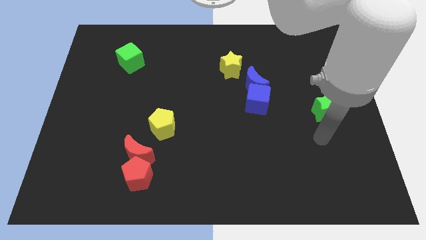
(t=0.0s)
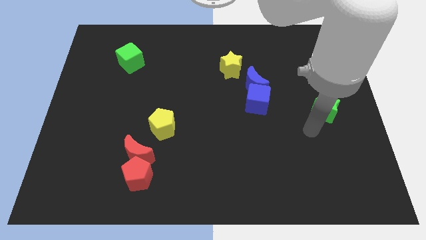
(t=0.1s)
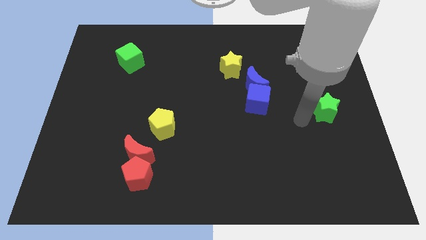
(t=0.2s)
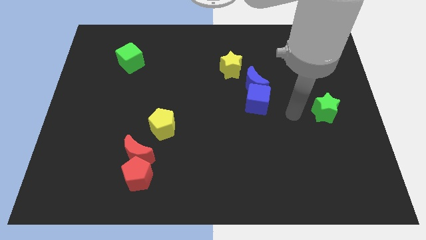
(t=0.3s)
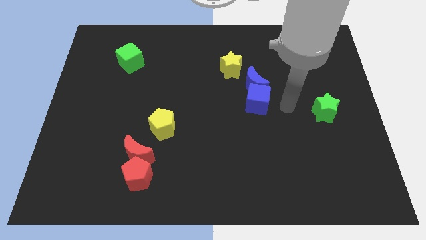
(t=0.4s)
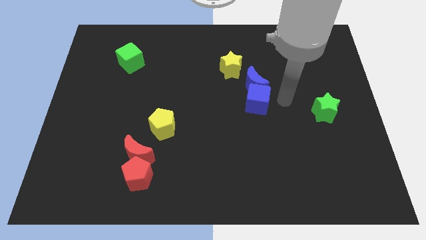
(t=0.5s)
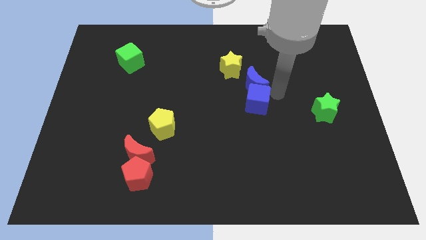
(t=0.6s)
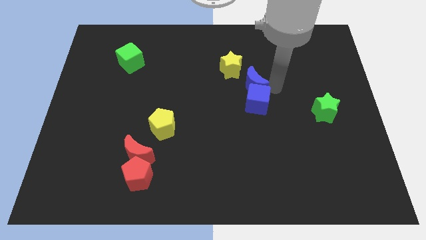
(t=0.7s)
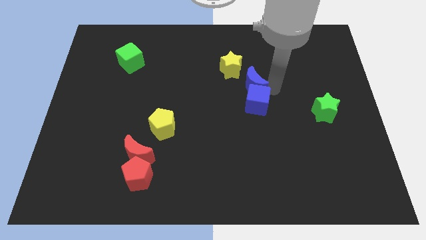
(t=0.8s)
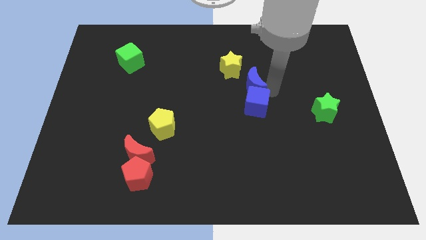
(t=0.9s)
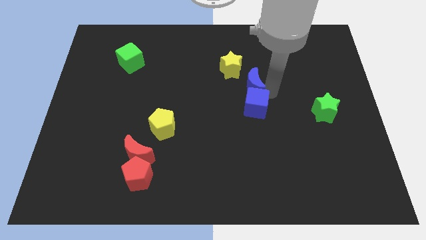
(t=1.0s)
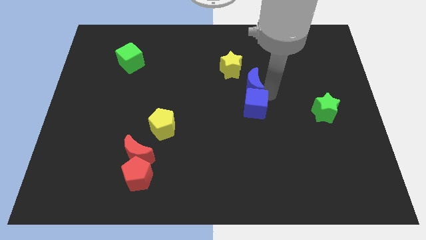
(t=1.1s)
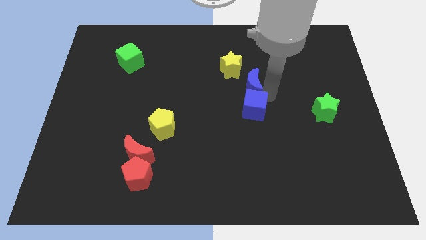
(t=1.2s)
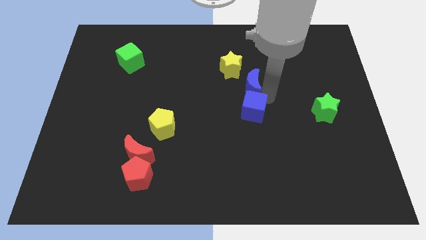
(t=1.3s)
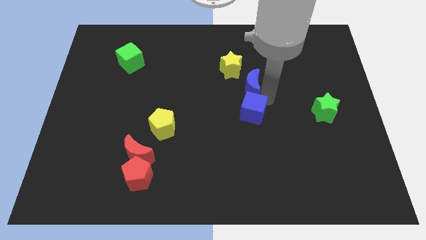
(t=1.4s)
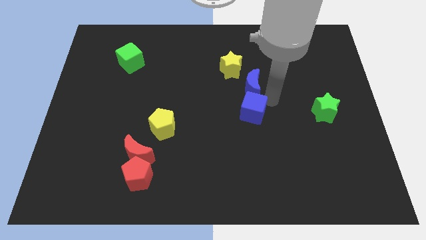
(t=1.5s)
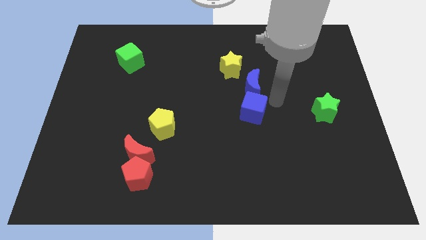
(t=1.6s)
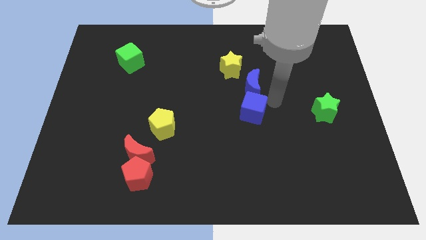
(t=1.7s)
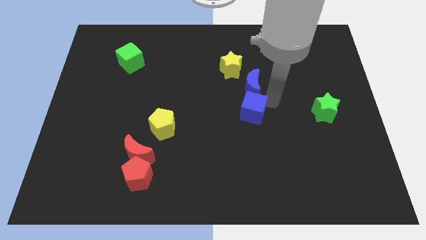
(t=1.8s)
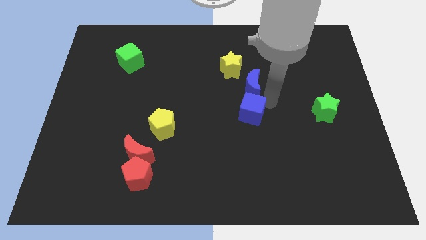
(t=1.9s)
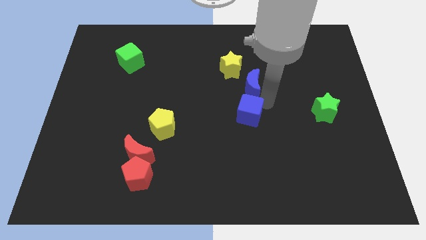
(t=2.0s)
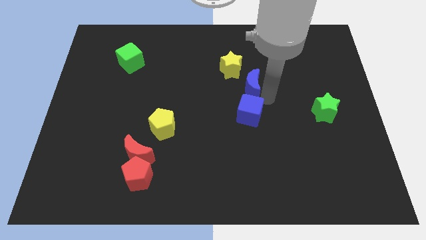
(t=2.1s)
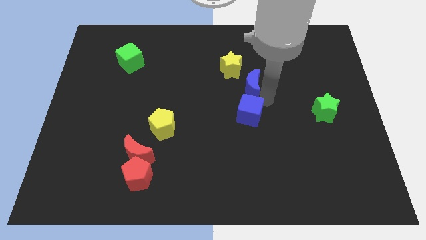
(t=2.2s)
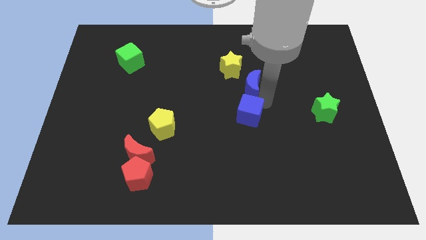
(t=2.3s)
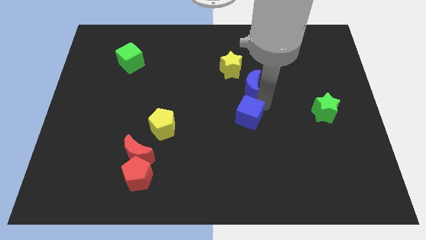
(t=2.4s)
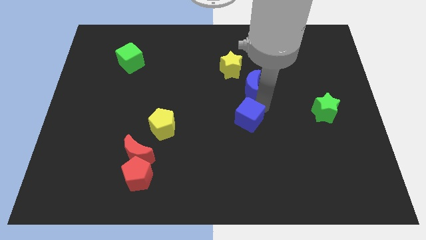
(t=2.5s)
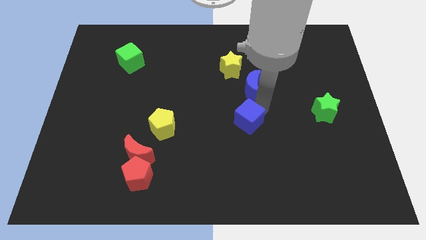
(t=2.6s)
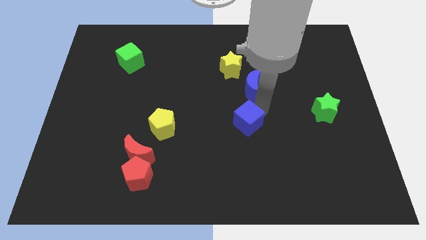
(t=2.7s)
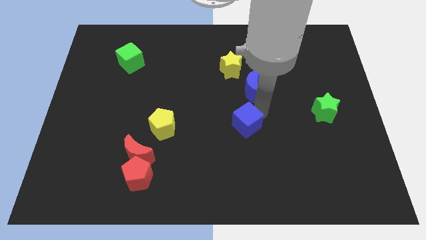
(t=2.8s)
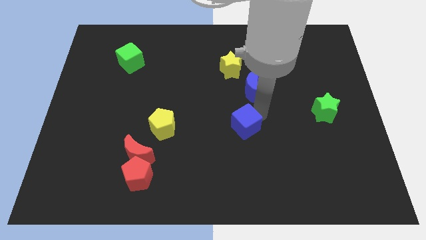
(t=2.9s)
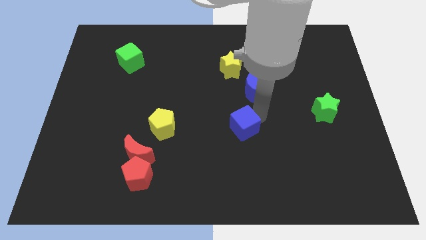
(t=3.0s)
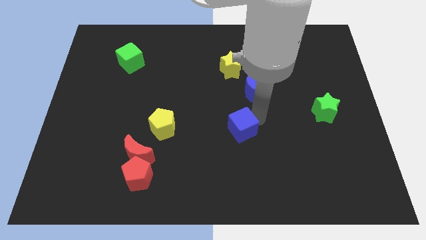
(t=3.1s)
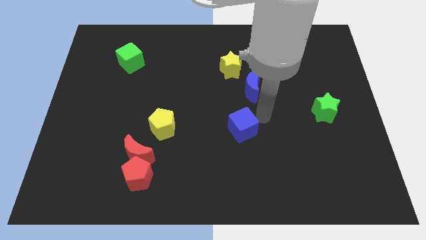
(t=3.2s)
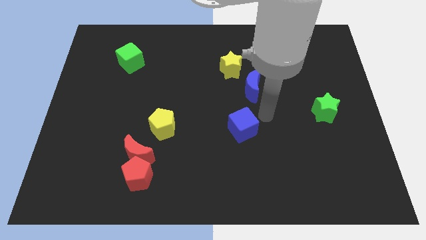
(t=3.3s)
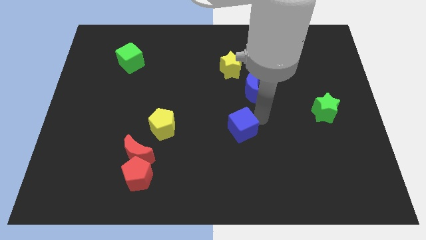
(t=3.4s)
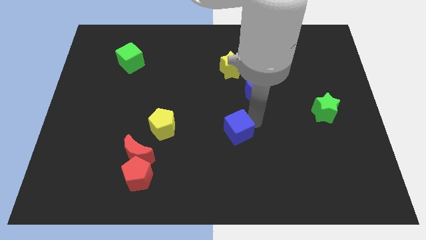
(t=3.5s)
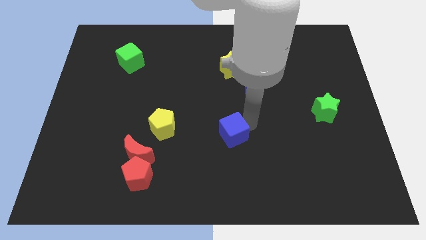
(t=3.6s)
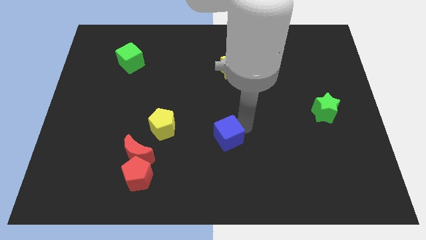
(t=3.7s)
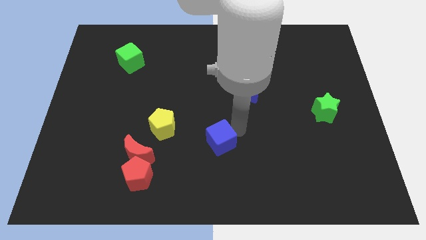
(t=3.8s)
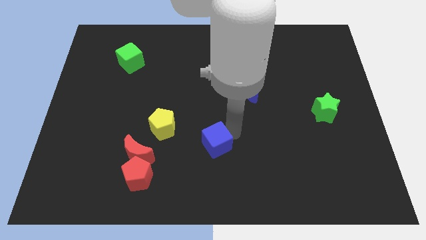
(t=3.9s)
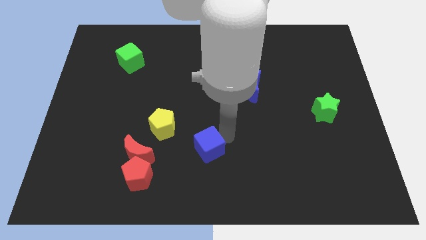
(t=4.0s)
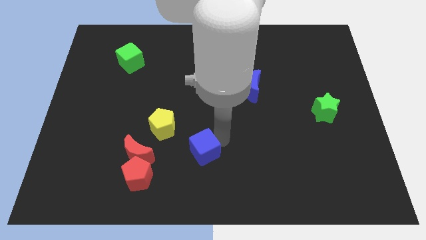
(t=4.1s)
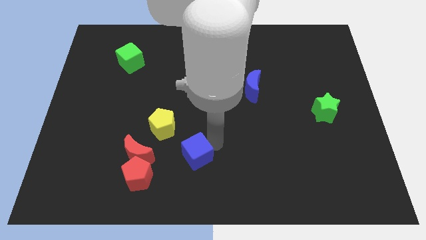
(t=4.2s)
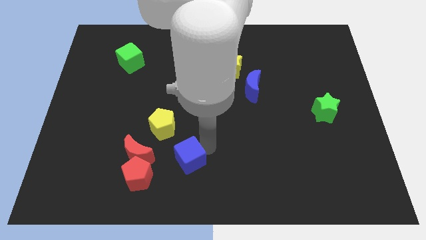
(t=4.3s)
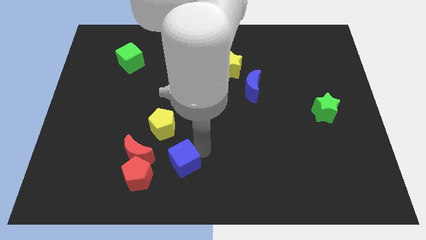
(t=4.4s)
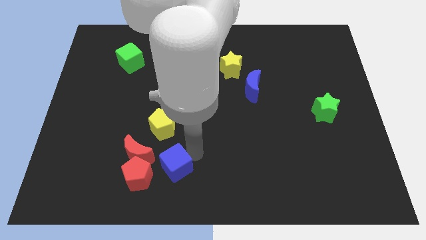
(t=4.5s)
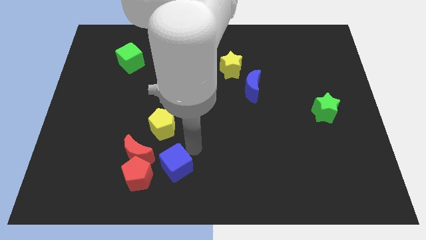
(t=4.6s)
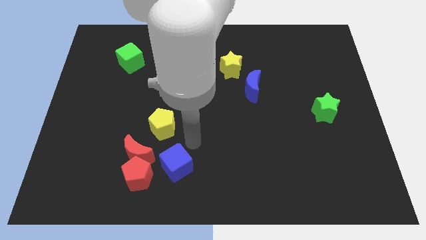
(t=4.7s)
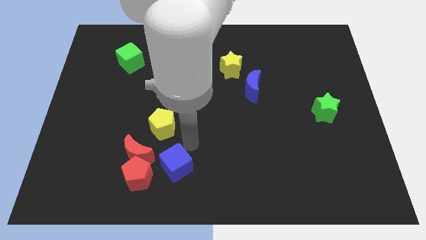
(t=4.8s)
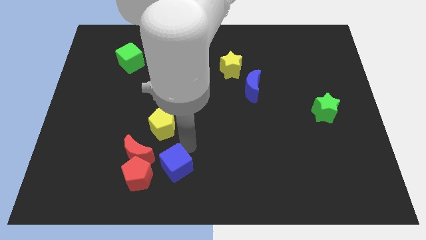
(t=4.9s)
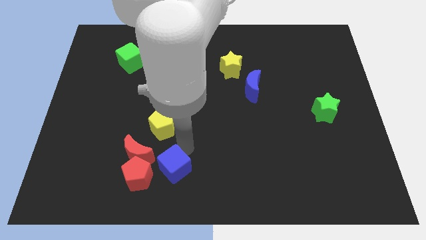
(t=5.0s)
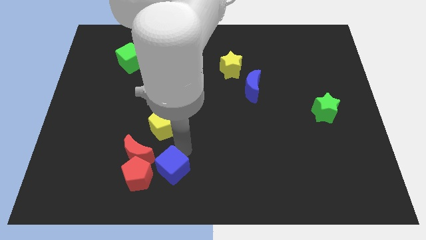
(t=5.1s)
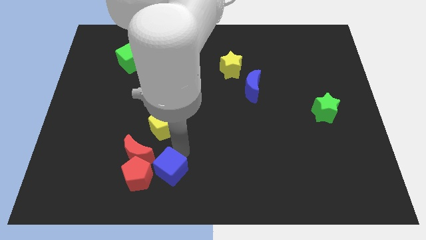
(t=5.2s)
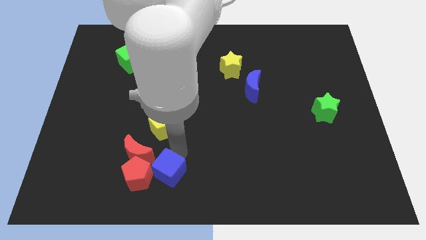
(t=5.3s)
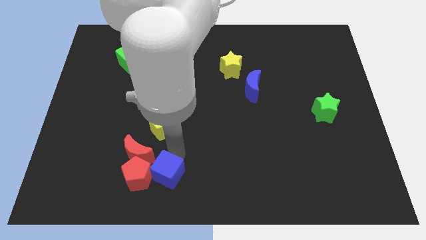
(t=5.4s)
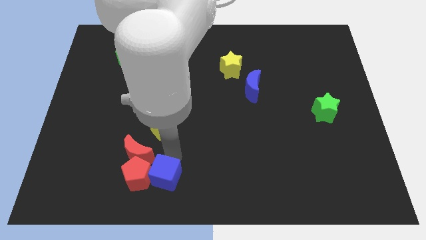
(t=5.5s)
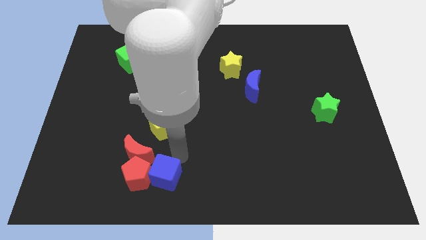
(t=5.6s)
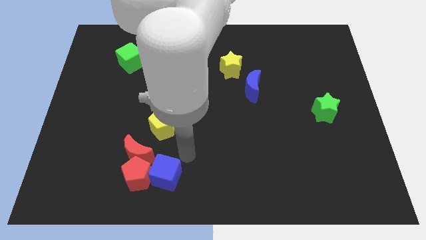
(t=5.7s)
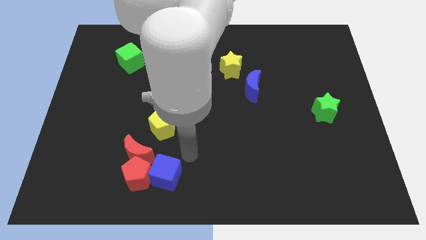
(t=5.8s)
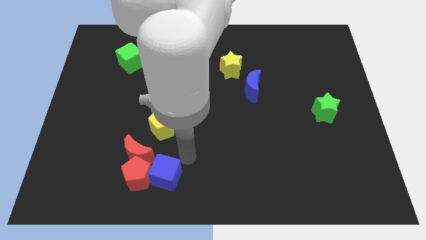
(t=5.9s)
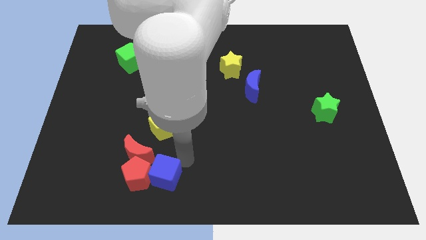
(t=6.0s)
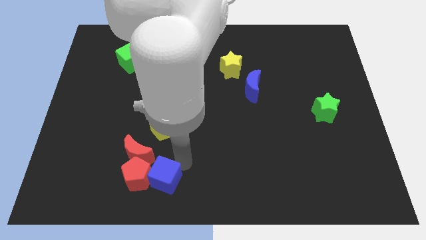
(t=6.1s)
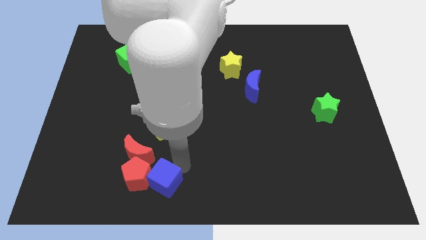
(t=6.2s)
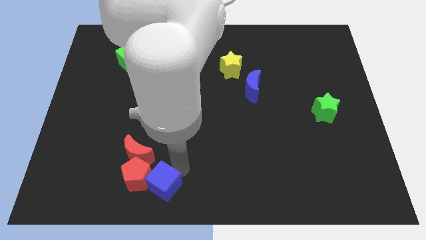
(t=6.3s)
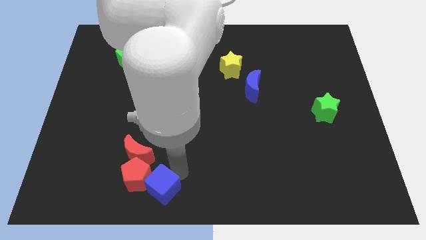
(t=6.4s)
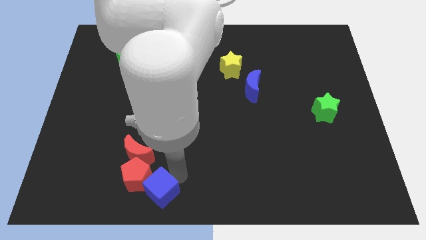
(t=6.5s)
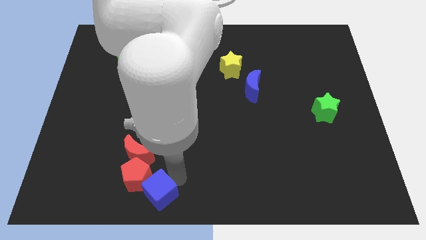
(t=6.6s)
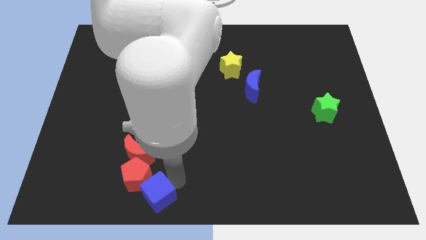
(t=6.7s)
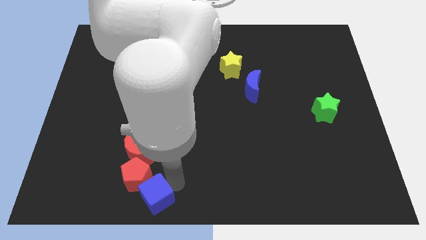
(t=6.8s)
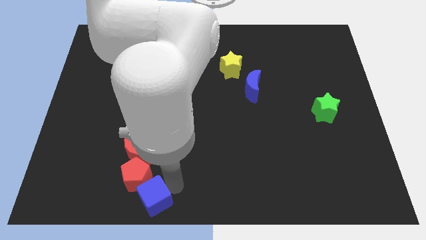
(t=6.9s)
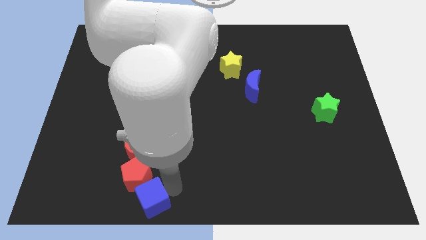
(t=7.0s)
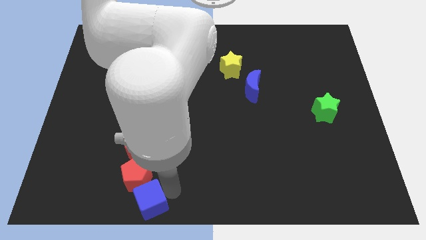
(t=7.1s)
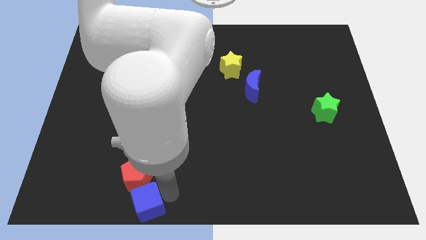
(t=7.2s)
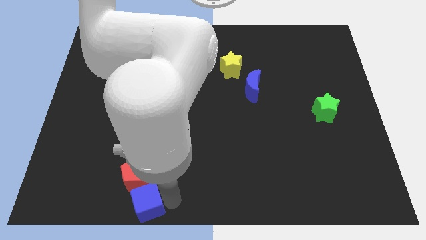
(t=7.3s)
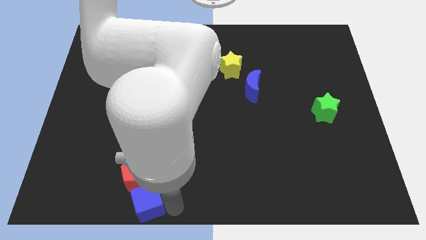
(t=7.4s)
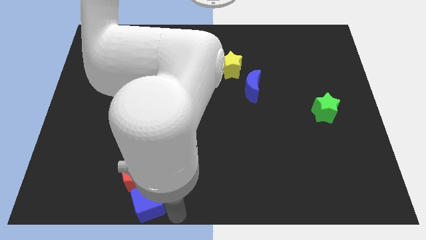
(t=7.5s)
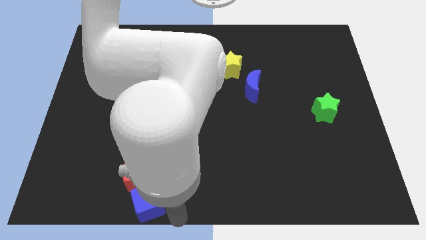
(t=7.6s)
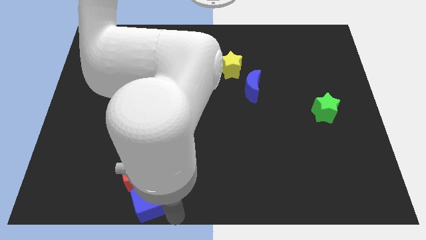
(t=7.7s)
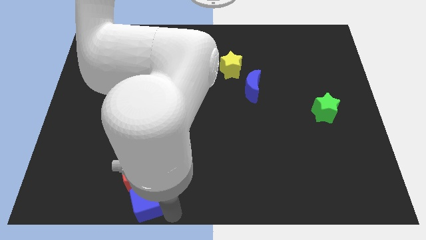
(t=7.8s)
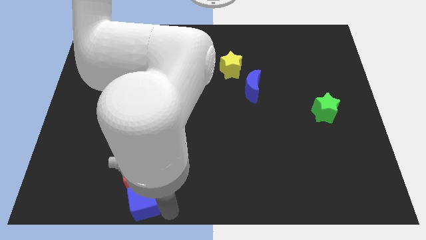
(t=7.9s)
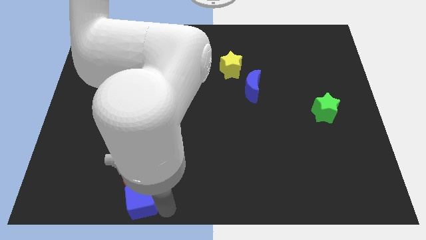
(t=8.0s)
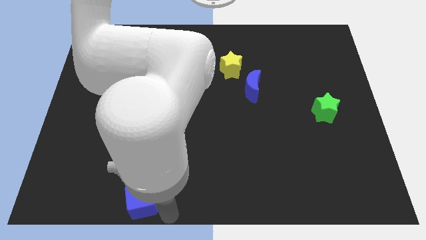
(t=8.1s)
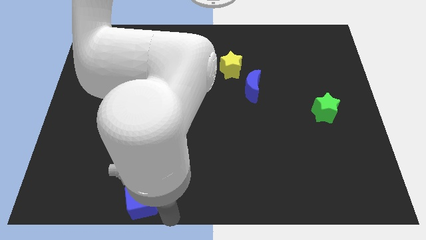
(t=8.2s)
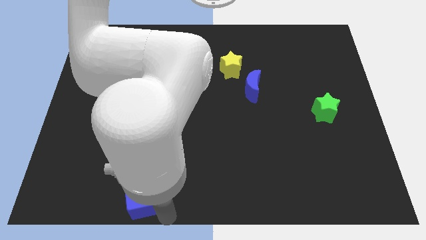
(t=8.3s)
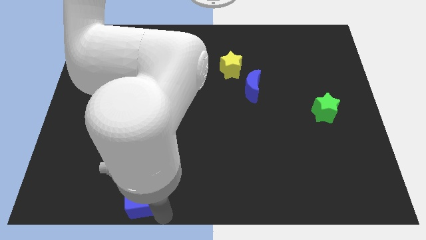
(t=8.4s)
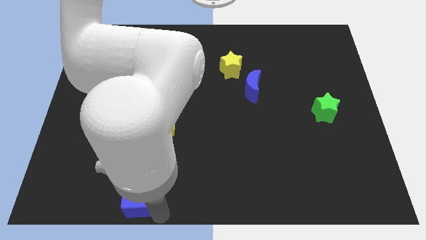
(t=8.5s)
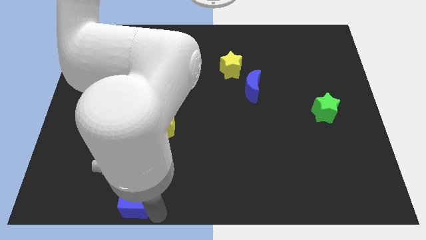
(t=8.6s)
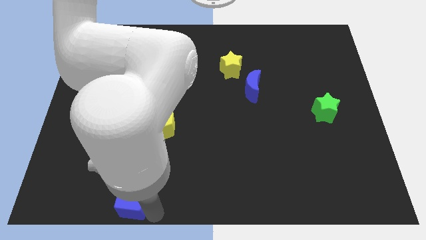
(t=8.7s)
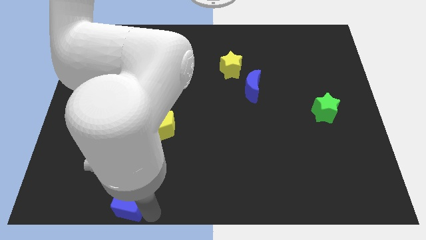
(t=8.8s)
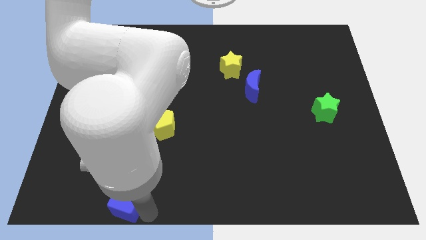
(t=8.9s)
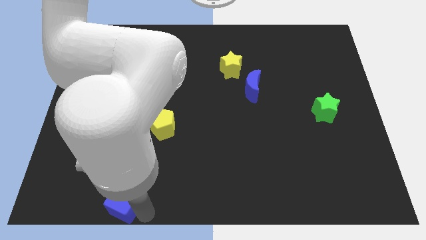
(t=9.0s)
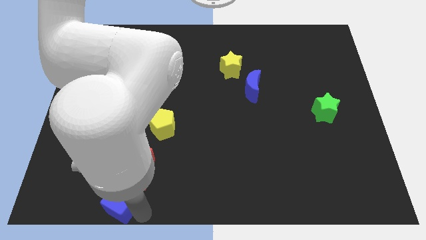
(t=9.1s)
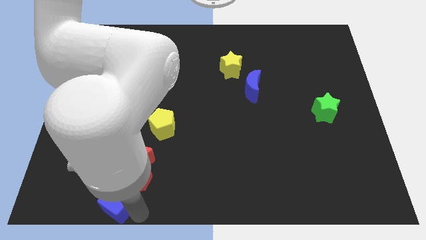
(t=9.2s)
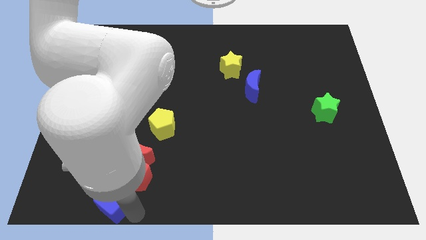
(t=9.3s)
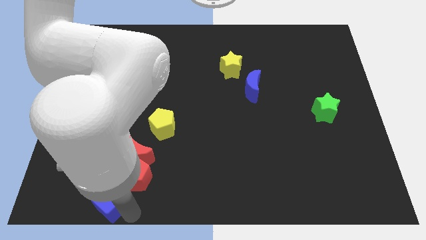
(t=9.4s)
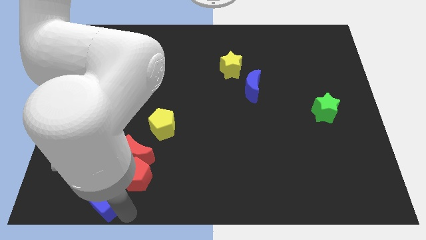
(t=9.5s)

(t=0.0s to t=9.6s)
slide the blue cube diagonally down and to the left of the red moon
